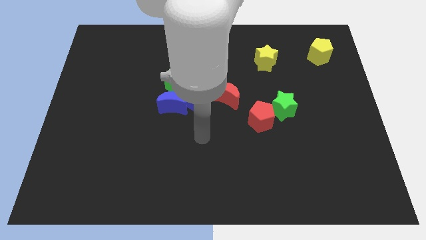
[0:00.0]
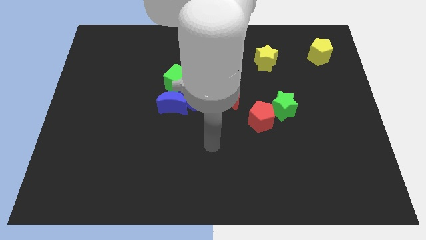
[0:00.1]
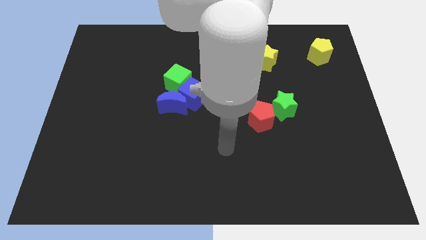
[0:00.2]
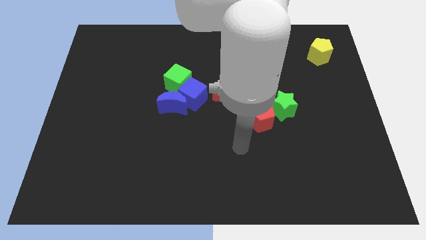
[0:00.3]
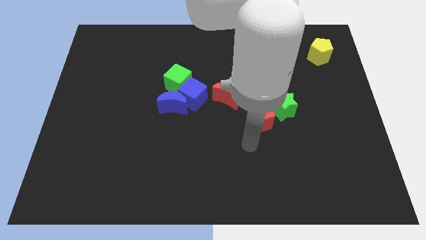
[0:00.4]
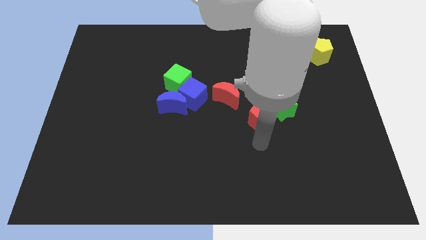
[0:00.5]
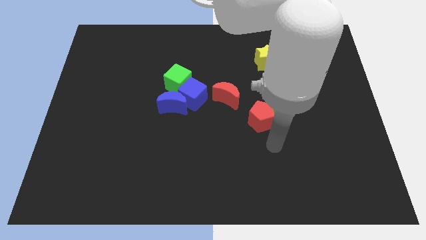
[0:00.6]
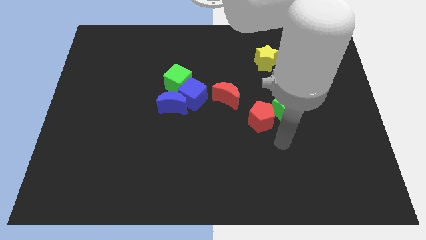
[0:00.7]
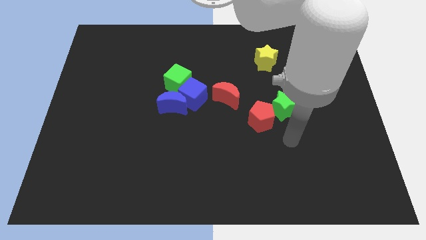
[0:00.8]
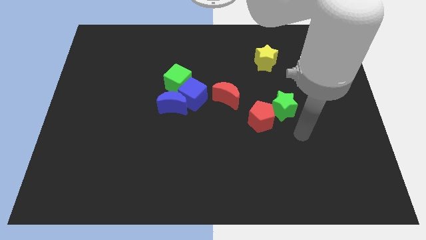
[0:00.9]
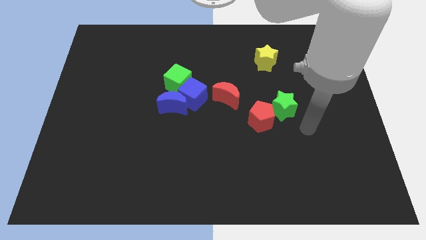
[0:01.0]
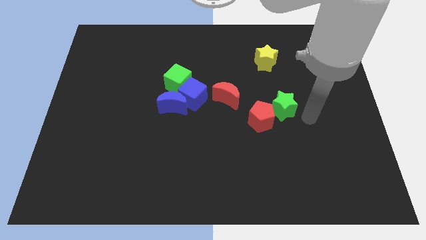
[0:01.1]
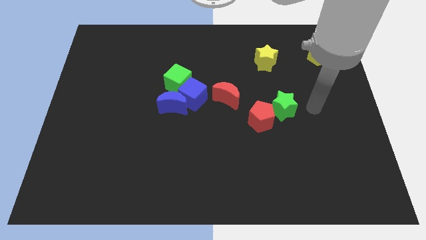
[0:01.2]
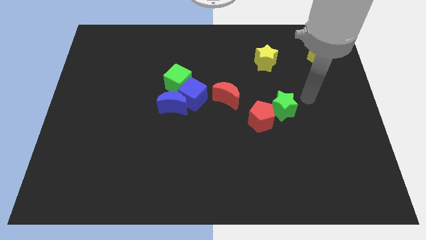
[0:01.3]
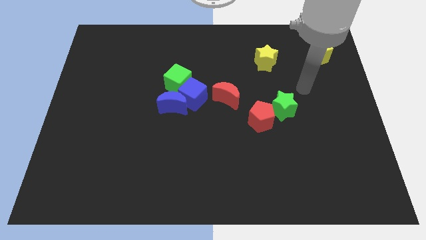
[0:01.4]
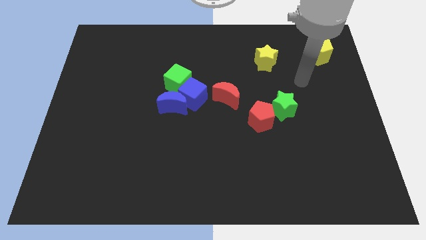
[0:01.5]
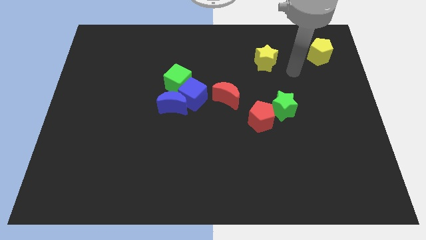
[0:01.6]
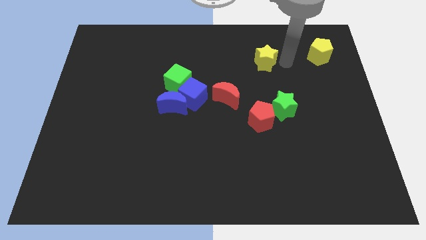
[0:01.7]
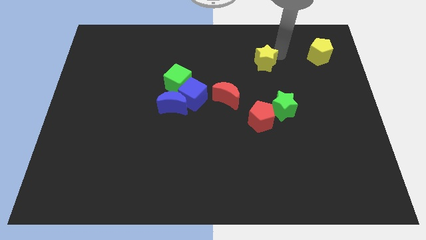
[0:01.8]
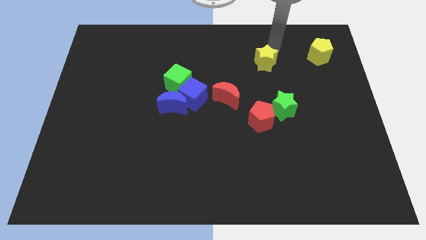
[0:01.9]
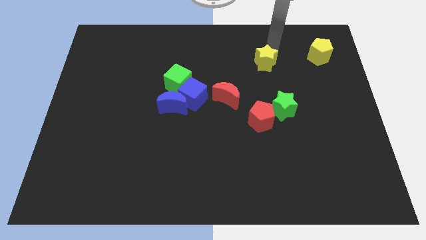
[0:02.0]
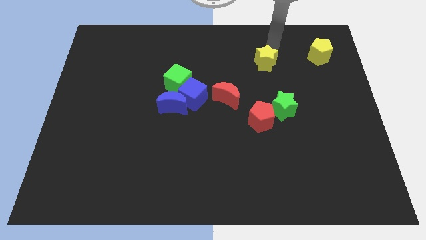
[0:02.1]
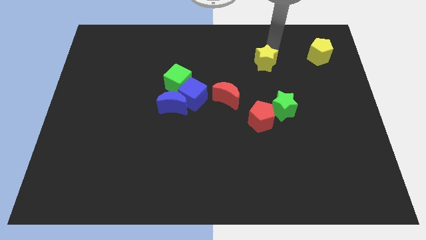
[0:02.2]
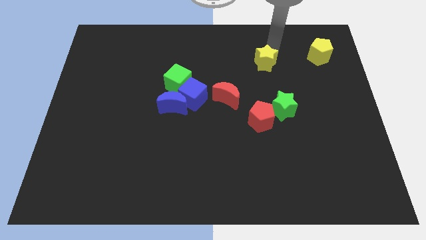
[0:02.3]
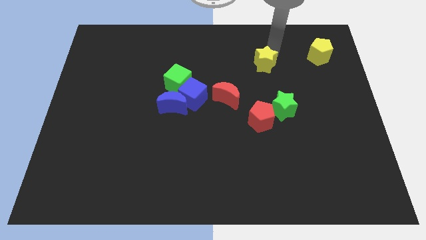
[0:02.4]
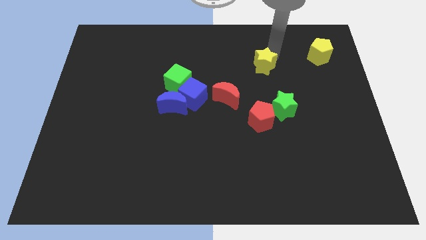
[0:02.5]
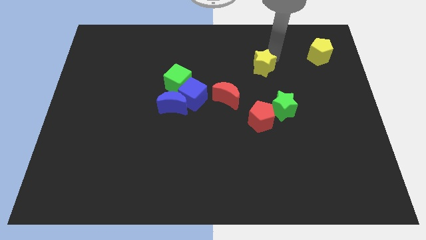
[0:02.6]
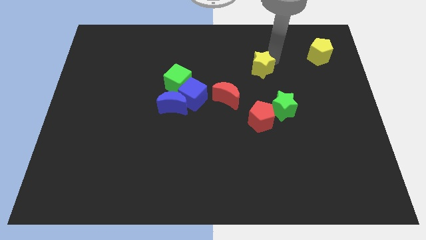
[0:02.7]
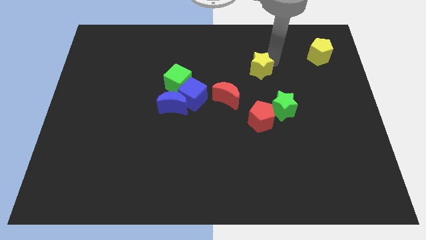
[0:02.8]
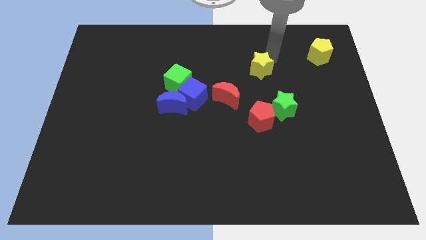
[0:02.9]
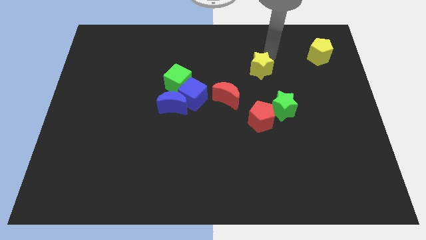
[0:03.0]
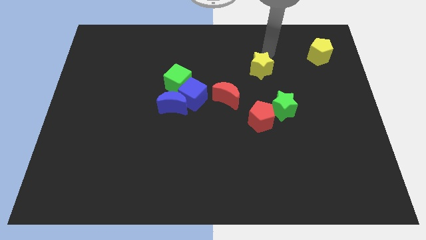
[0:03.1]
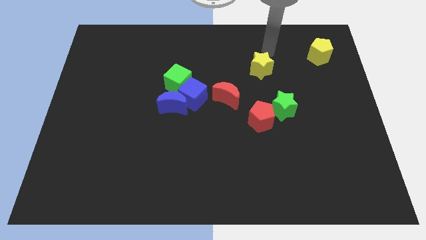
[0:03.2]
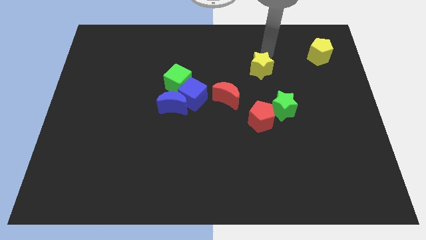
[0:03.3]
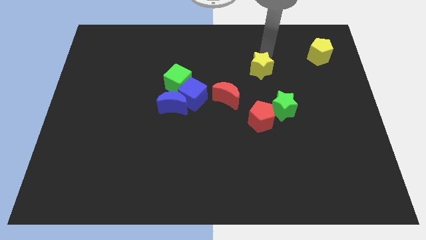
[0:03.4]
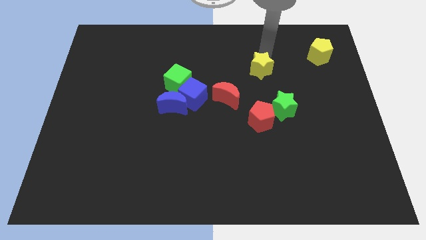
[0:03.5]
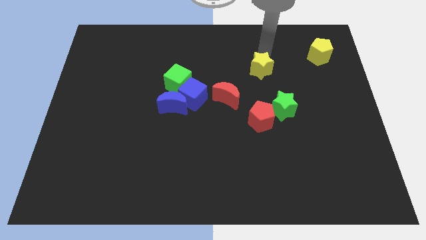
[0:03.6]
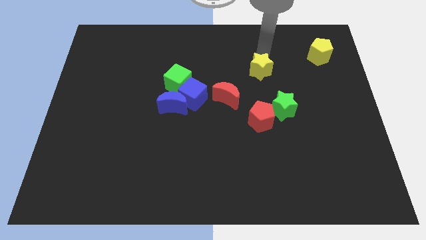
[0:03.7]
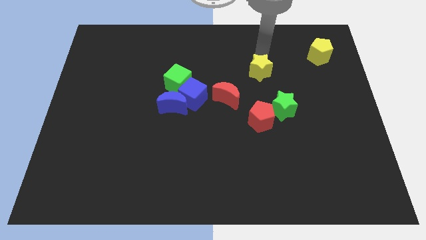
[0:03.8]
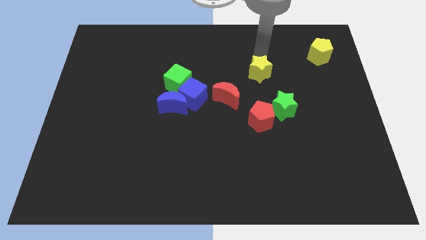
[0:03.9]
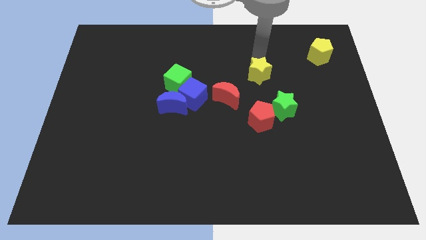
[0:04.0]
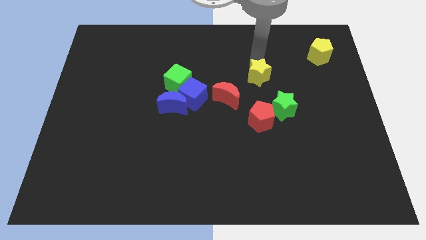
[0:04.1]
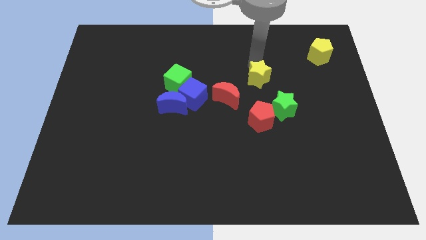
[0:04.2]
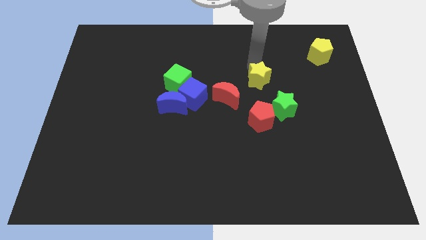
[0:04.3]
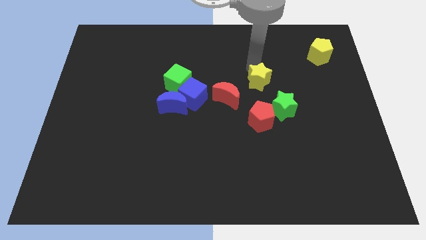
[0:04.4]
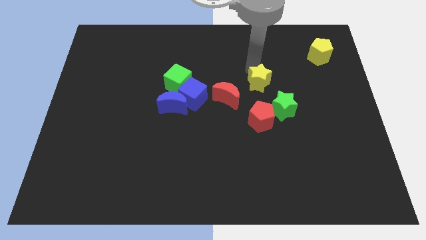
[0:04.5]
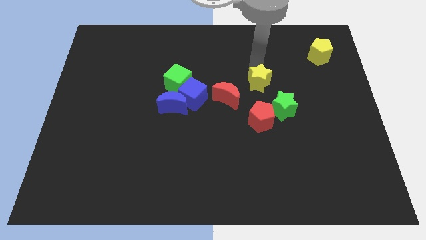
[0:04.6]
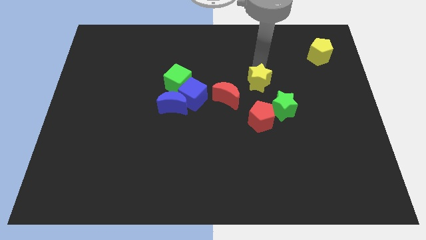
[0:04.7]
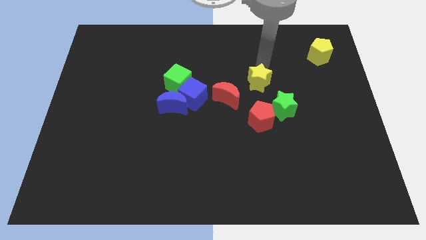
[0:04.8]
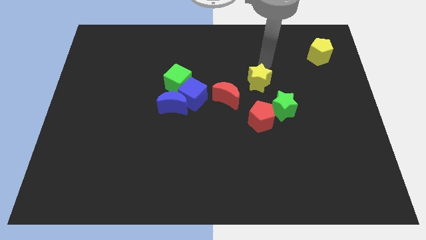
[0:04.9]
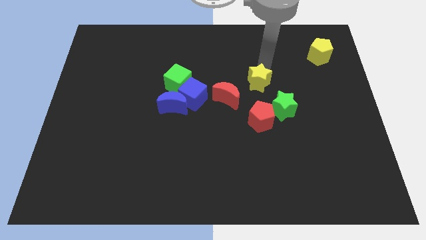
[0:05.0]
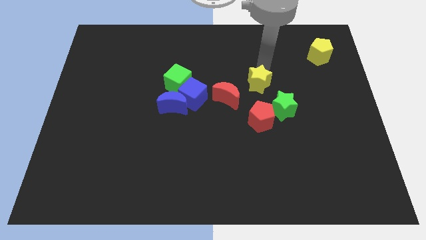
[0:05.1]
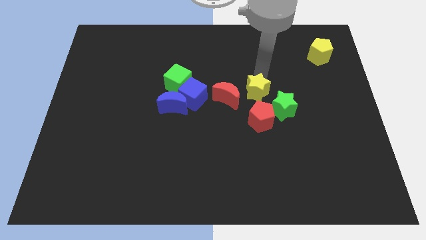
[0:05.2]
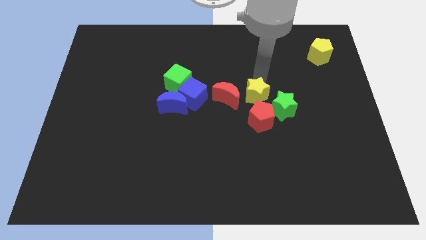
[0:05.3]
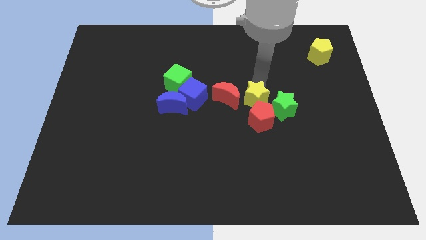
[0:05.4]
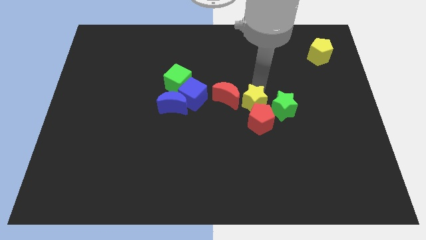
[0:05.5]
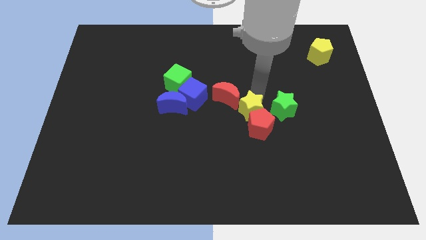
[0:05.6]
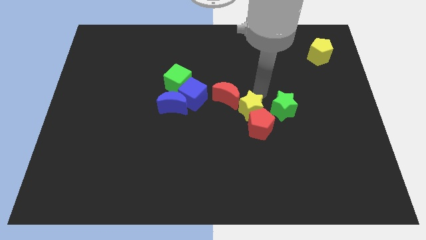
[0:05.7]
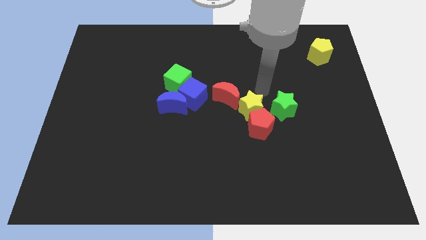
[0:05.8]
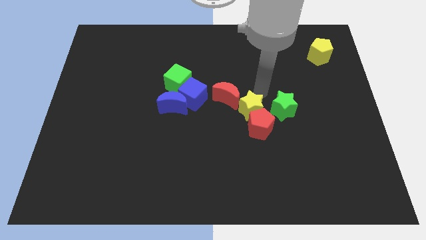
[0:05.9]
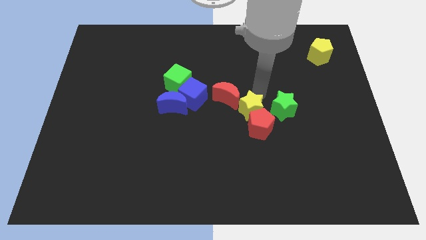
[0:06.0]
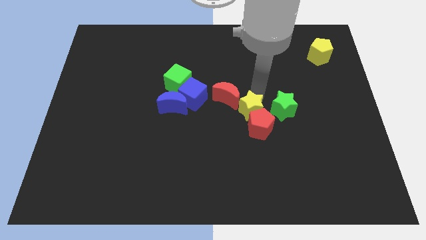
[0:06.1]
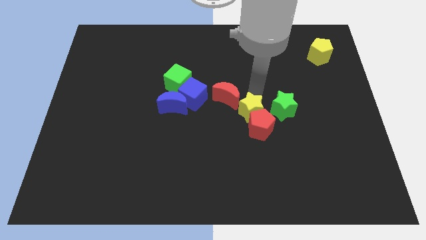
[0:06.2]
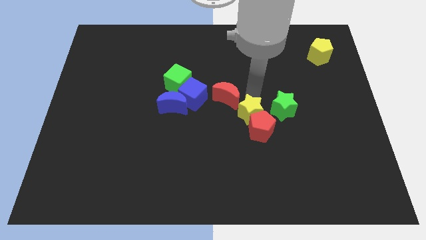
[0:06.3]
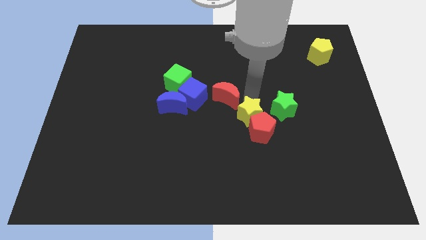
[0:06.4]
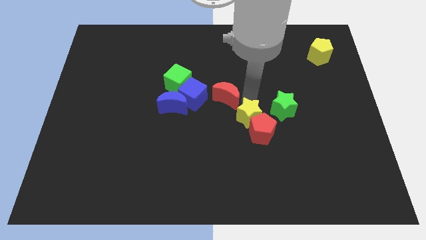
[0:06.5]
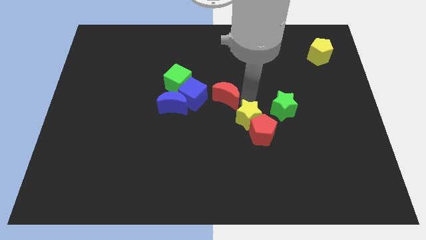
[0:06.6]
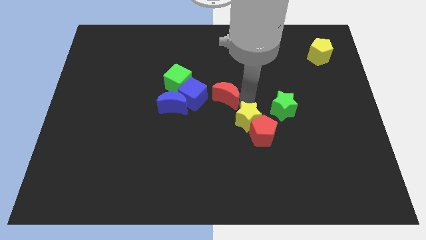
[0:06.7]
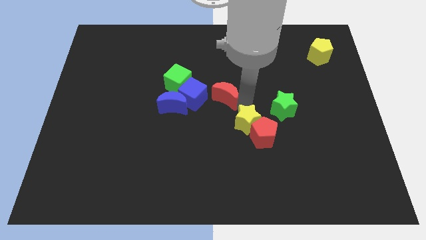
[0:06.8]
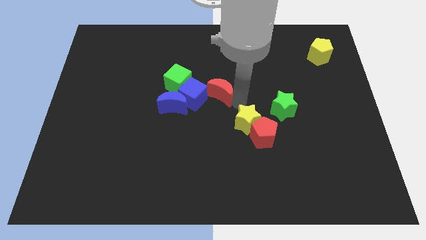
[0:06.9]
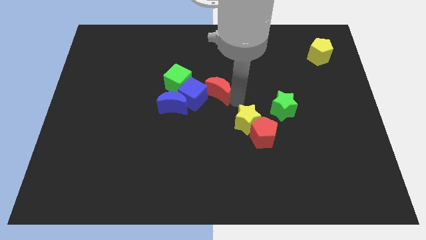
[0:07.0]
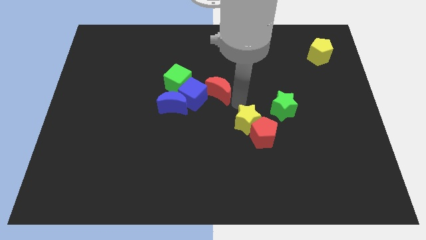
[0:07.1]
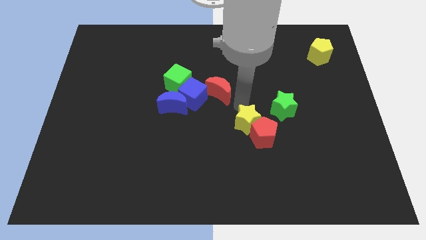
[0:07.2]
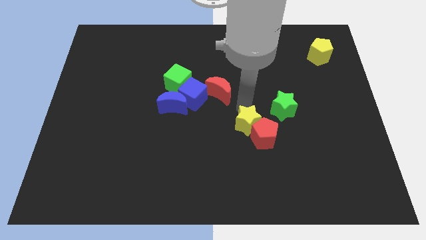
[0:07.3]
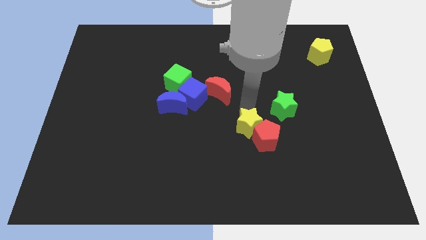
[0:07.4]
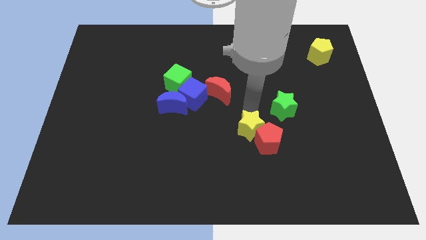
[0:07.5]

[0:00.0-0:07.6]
slide the yellow star downwards

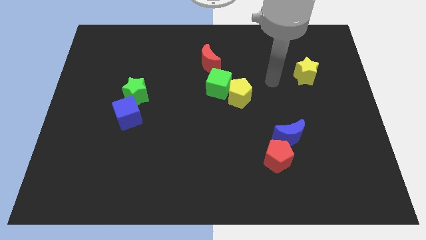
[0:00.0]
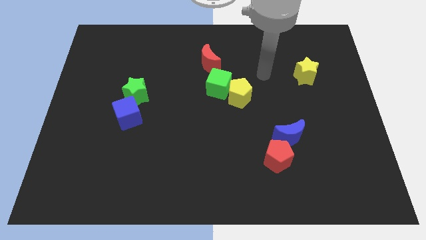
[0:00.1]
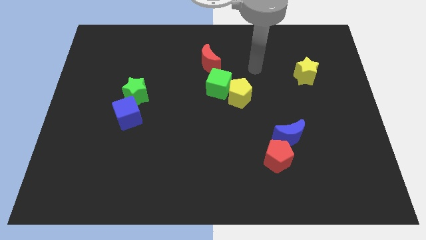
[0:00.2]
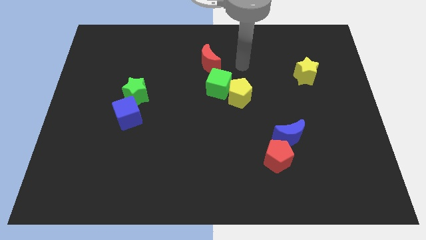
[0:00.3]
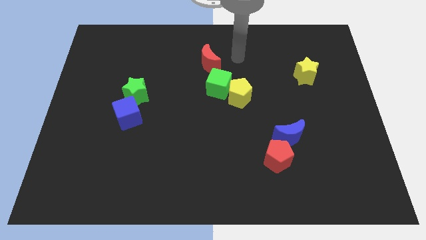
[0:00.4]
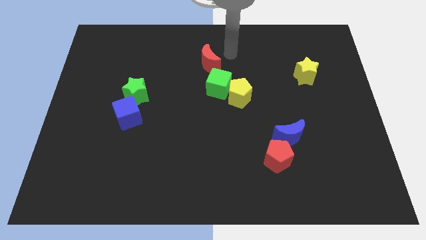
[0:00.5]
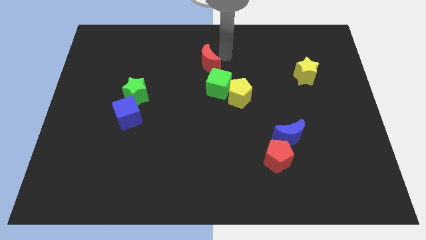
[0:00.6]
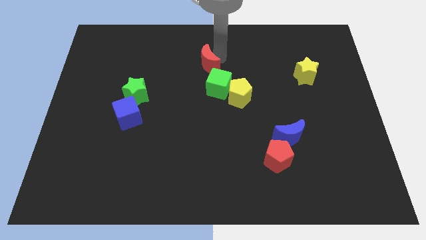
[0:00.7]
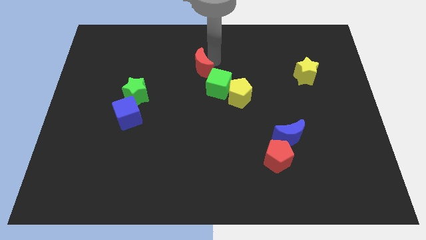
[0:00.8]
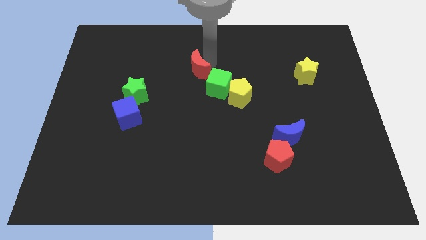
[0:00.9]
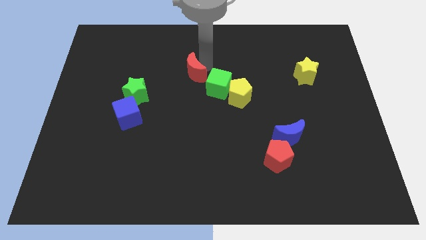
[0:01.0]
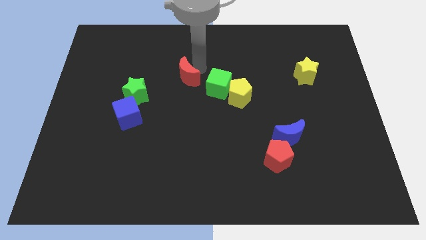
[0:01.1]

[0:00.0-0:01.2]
move the red moon diagonally downwards and to the left a little
